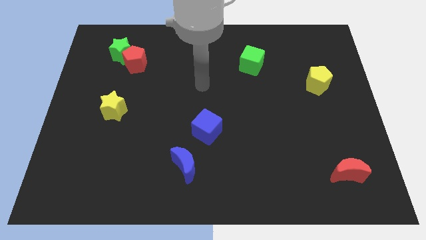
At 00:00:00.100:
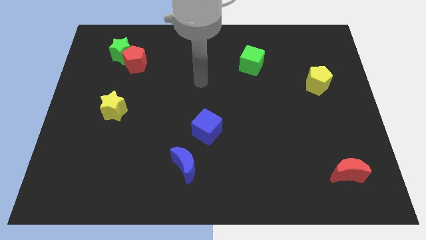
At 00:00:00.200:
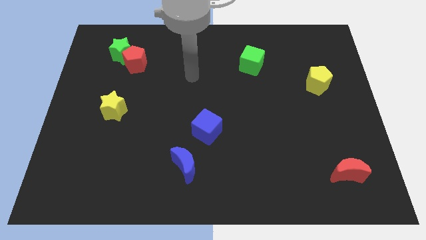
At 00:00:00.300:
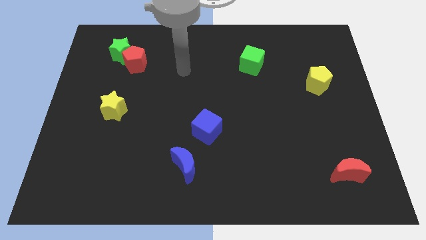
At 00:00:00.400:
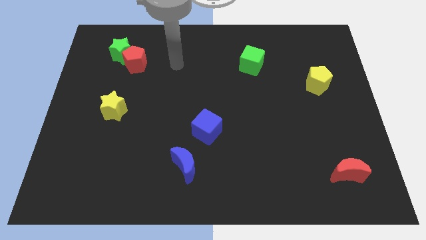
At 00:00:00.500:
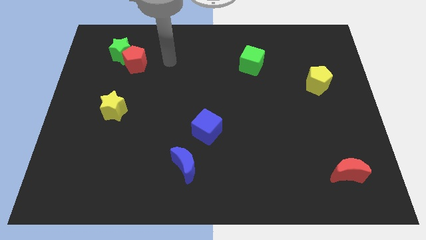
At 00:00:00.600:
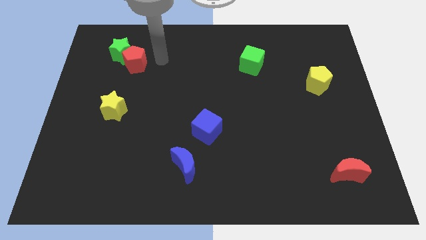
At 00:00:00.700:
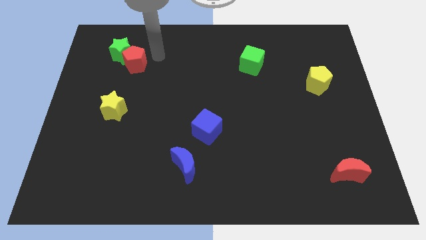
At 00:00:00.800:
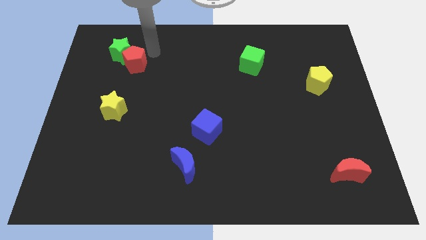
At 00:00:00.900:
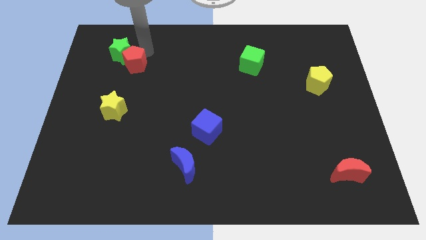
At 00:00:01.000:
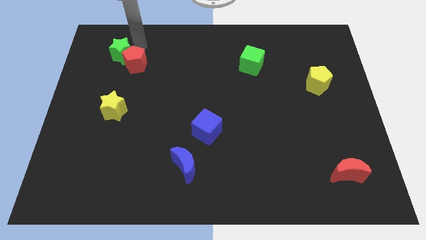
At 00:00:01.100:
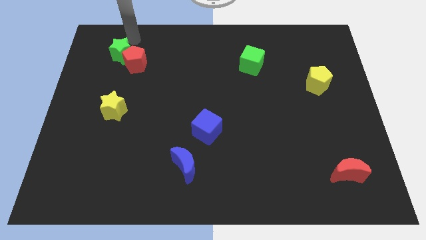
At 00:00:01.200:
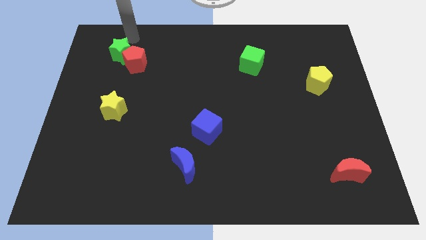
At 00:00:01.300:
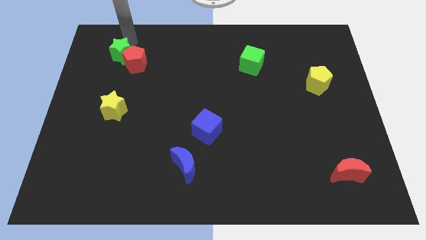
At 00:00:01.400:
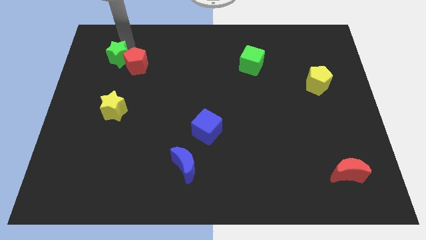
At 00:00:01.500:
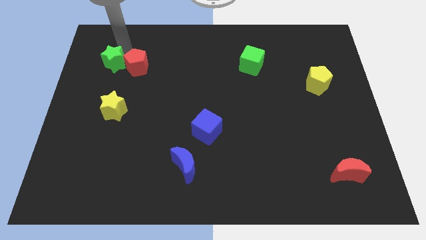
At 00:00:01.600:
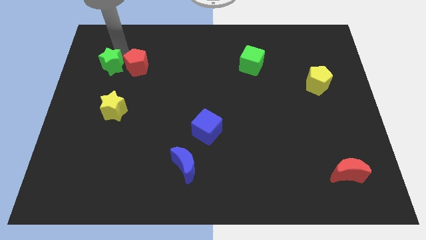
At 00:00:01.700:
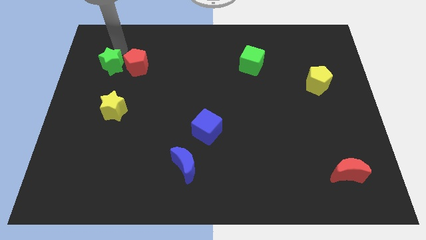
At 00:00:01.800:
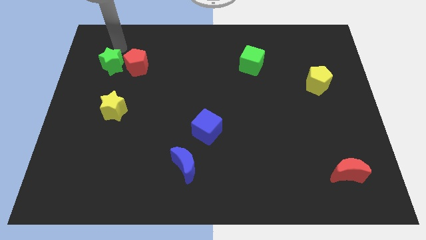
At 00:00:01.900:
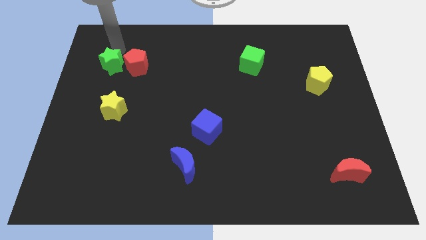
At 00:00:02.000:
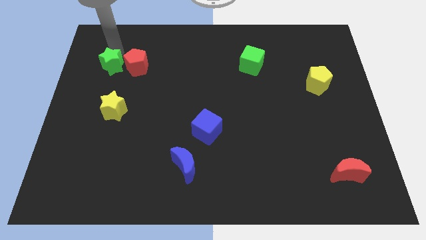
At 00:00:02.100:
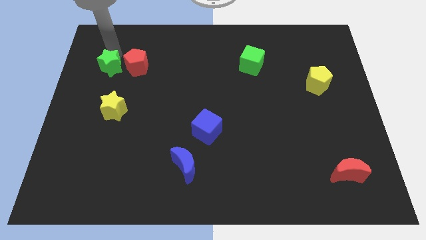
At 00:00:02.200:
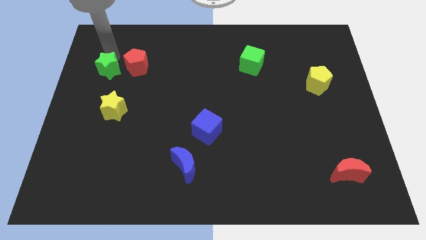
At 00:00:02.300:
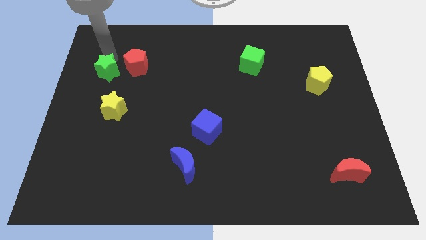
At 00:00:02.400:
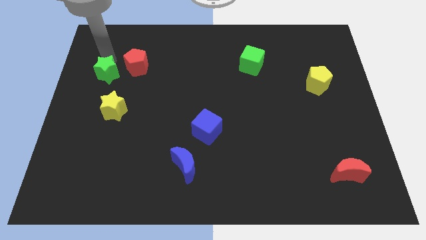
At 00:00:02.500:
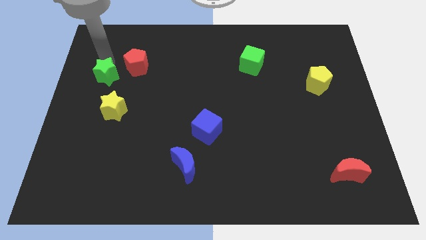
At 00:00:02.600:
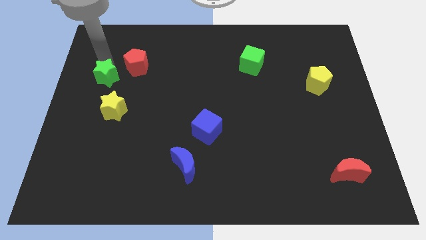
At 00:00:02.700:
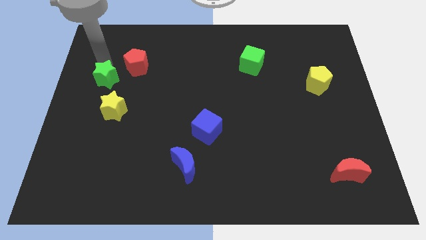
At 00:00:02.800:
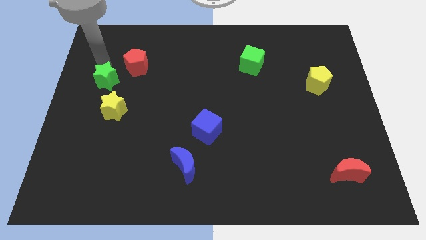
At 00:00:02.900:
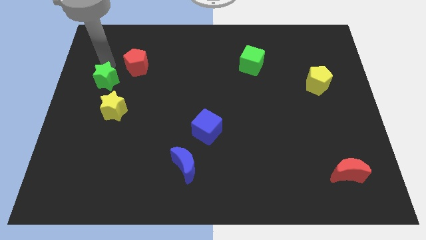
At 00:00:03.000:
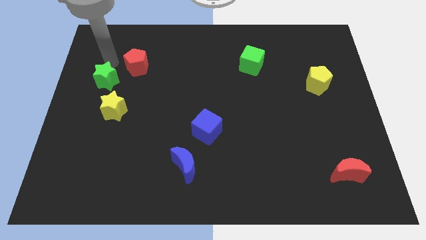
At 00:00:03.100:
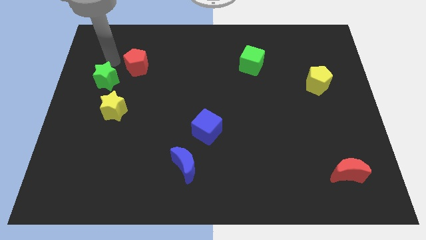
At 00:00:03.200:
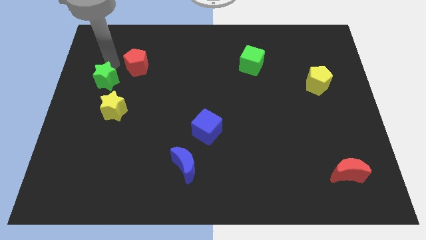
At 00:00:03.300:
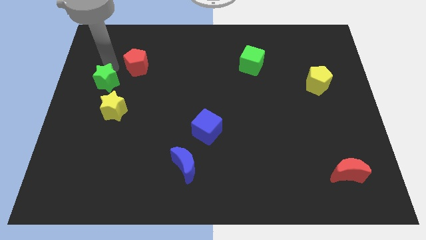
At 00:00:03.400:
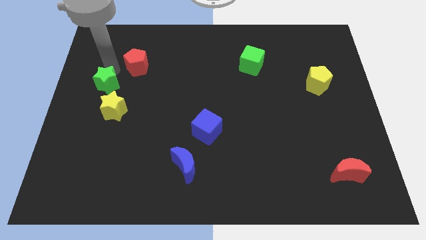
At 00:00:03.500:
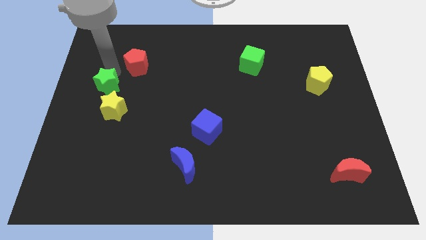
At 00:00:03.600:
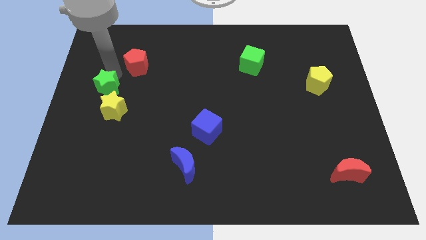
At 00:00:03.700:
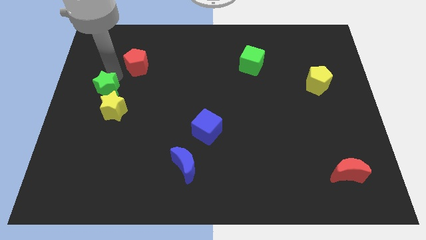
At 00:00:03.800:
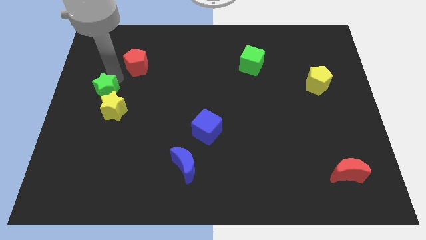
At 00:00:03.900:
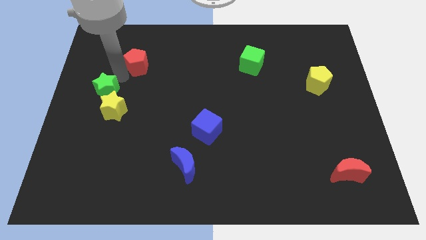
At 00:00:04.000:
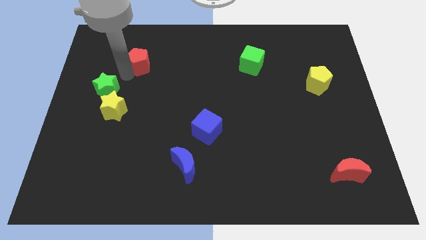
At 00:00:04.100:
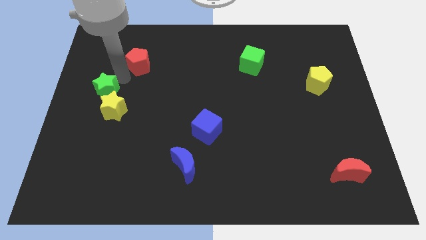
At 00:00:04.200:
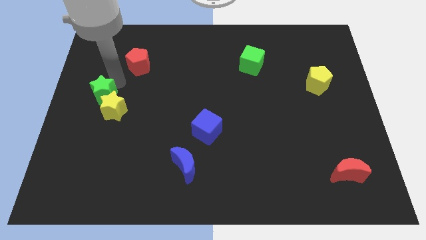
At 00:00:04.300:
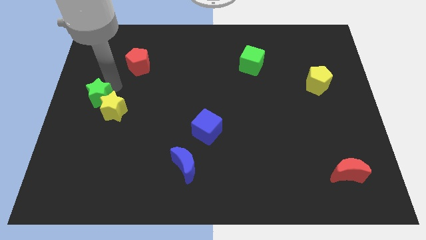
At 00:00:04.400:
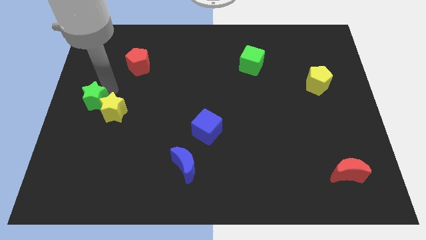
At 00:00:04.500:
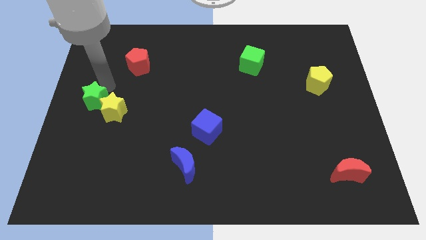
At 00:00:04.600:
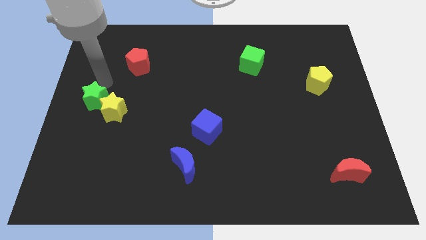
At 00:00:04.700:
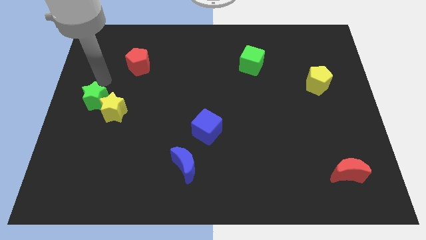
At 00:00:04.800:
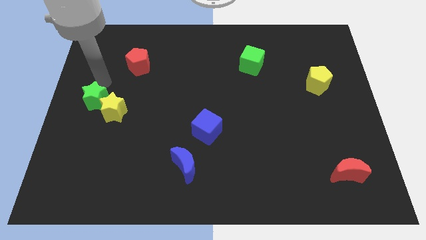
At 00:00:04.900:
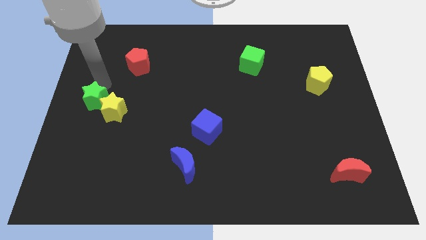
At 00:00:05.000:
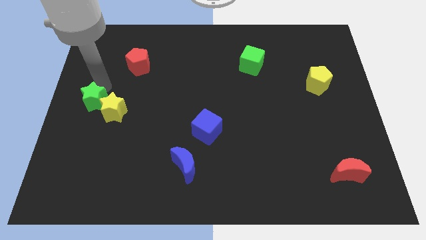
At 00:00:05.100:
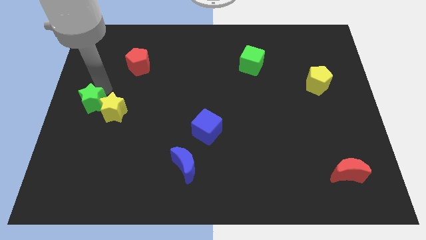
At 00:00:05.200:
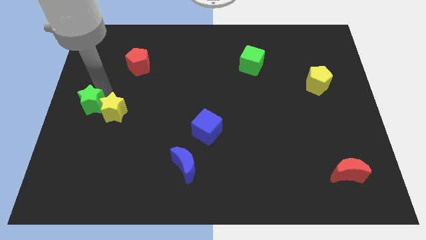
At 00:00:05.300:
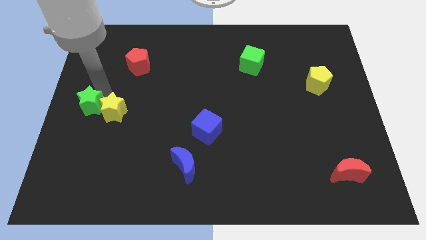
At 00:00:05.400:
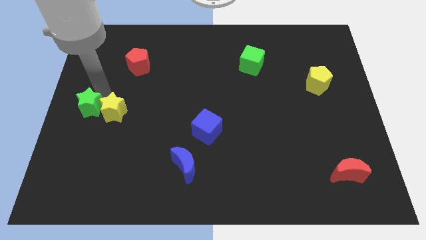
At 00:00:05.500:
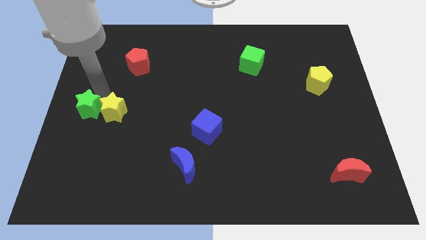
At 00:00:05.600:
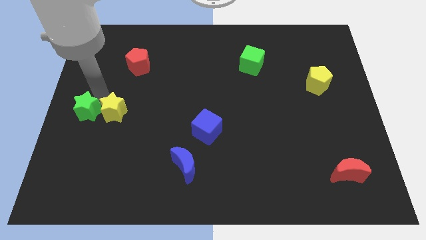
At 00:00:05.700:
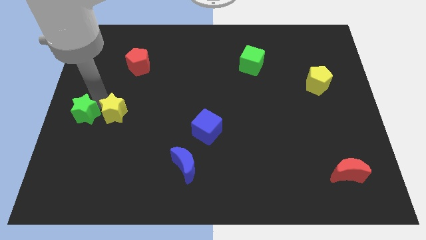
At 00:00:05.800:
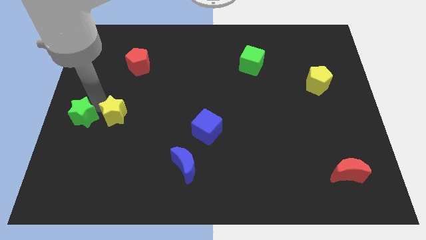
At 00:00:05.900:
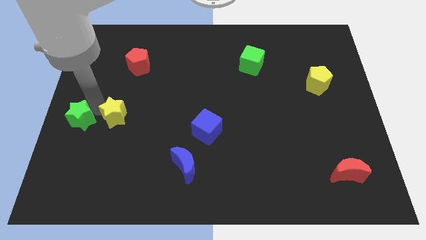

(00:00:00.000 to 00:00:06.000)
push the green star downwards

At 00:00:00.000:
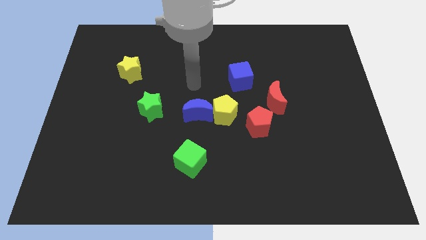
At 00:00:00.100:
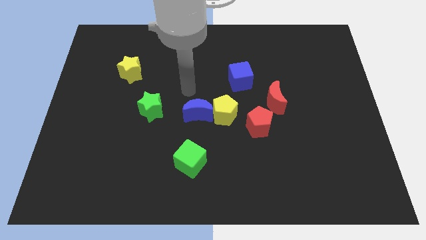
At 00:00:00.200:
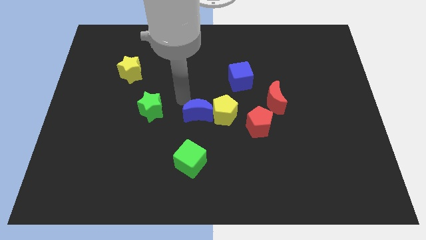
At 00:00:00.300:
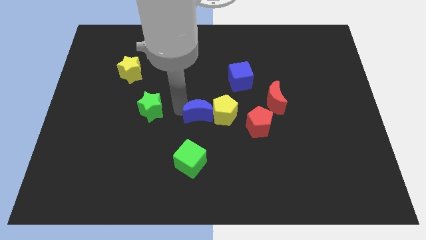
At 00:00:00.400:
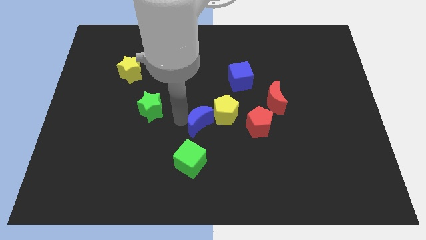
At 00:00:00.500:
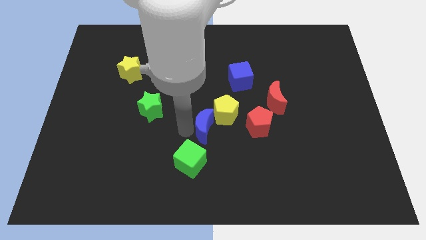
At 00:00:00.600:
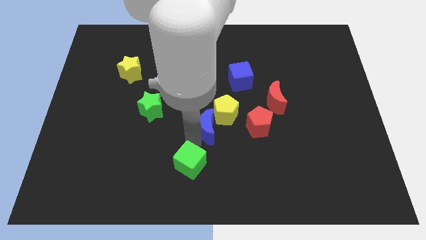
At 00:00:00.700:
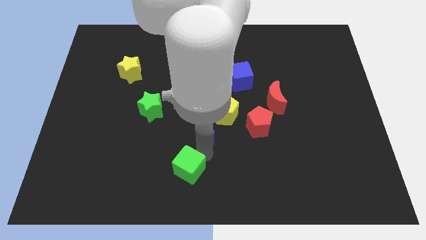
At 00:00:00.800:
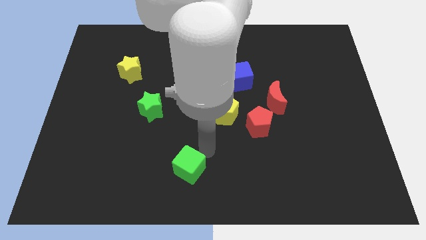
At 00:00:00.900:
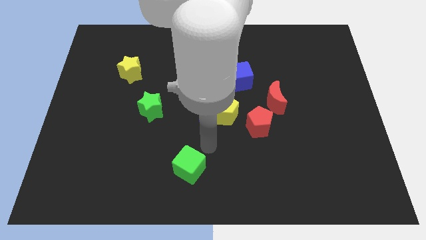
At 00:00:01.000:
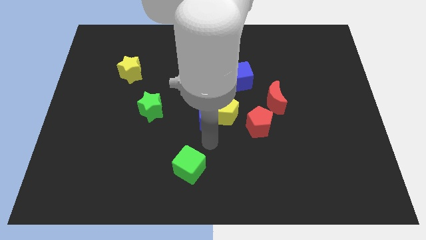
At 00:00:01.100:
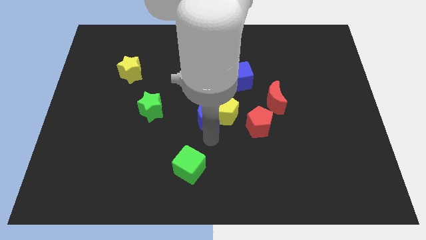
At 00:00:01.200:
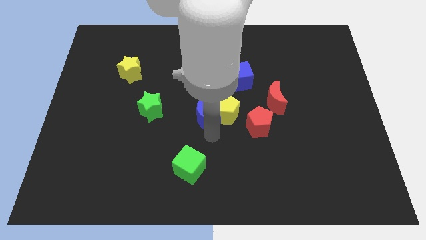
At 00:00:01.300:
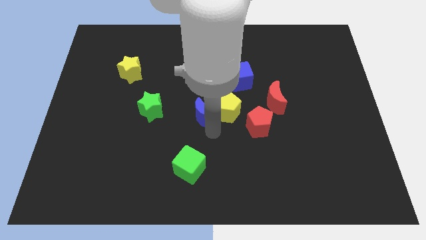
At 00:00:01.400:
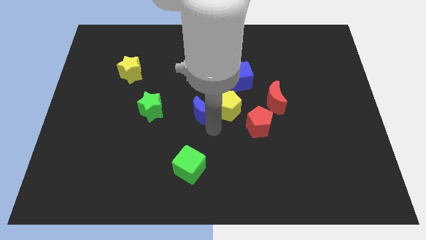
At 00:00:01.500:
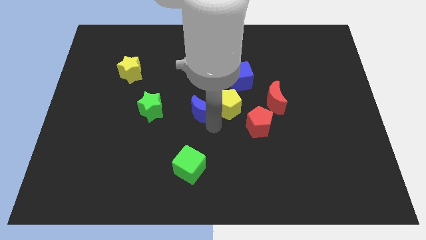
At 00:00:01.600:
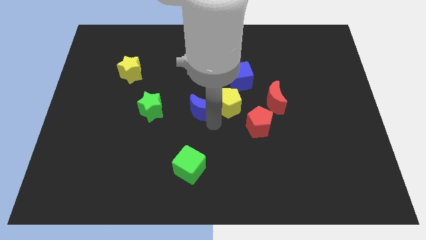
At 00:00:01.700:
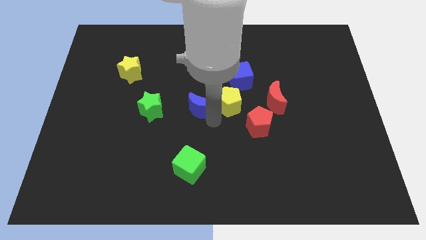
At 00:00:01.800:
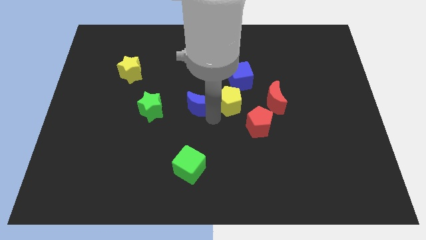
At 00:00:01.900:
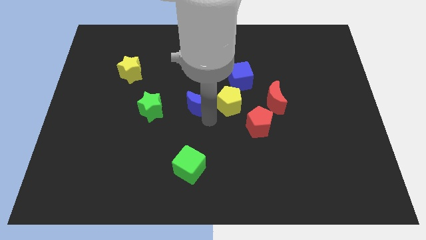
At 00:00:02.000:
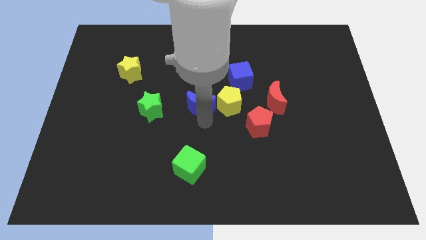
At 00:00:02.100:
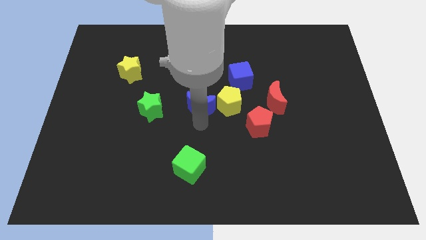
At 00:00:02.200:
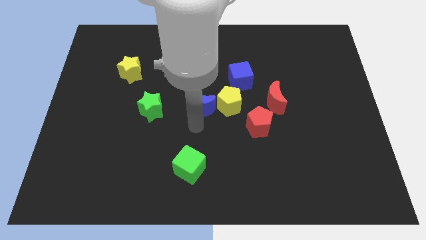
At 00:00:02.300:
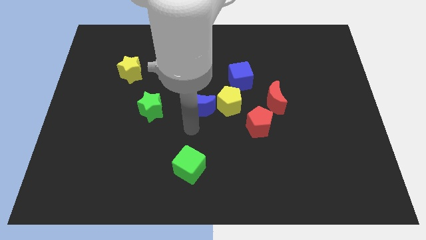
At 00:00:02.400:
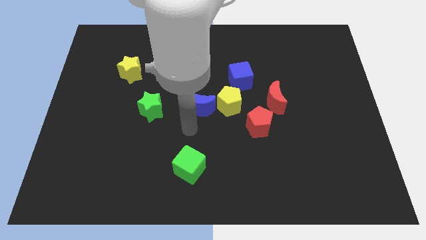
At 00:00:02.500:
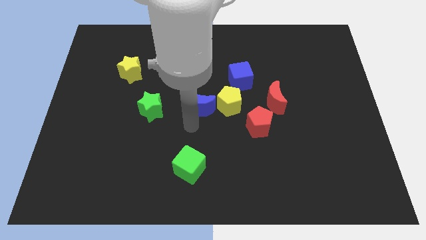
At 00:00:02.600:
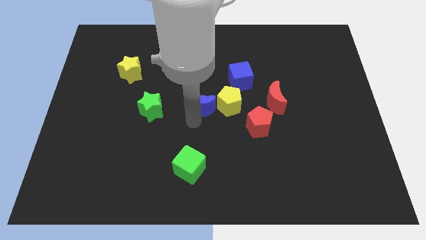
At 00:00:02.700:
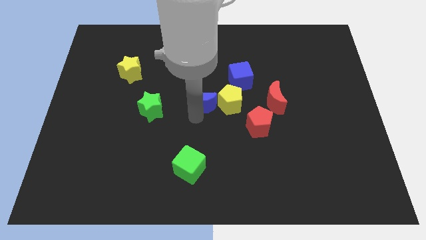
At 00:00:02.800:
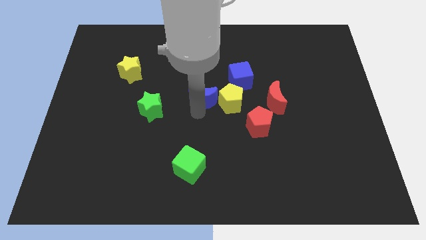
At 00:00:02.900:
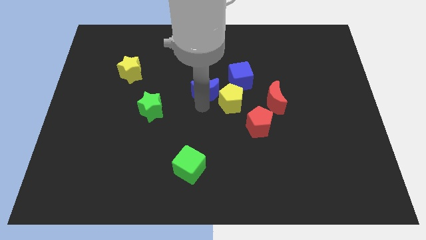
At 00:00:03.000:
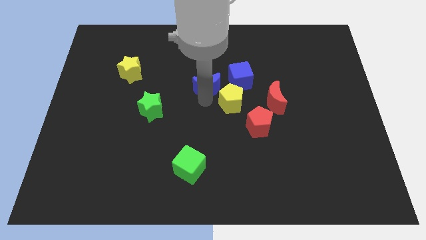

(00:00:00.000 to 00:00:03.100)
move the blue moon upwards somewhat
